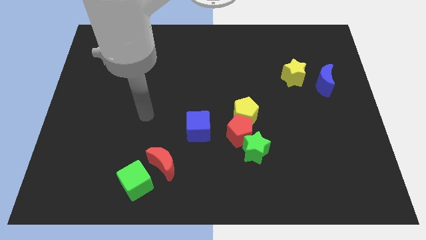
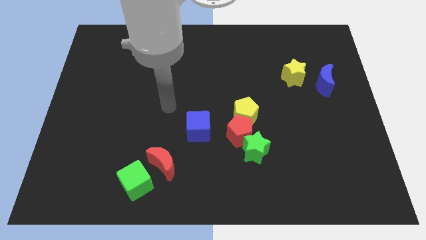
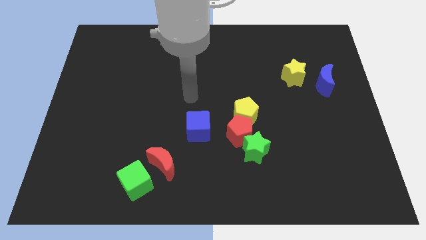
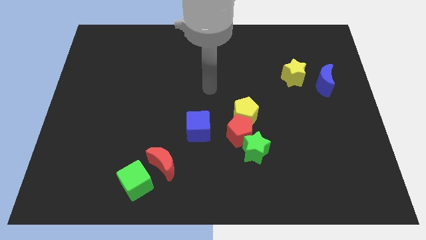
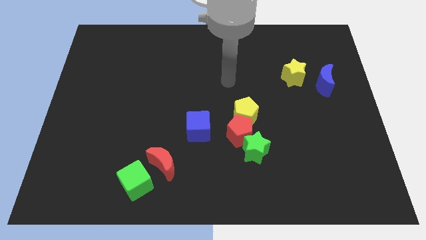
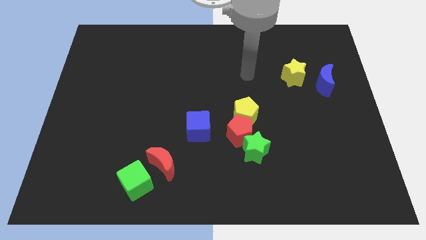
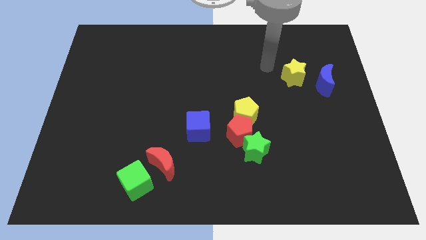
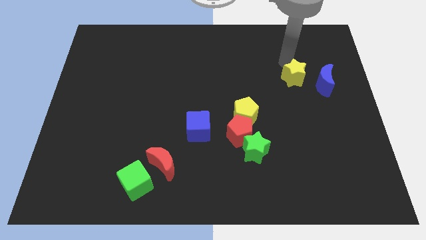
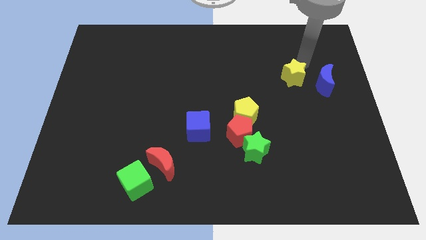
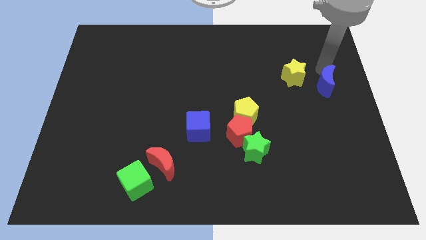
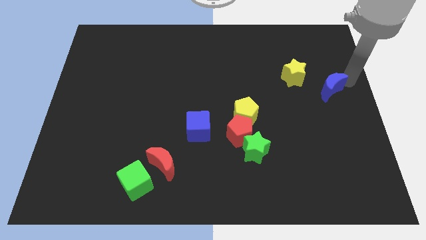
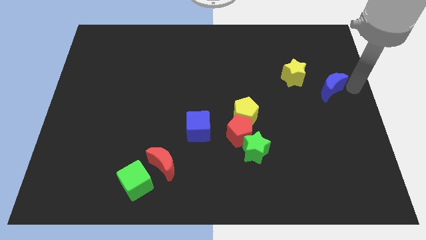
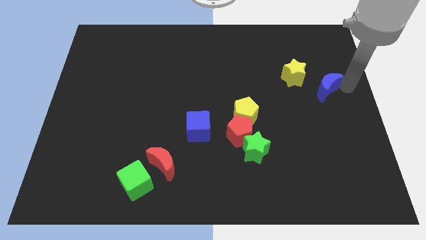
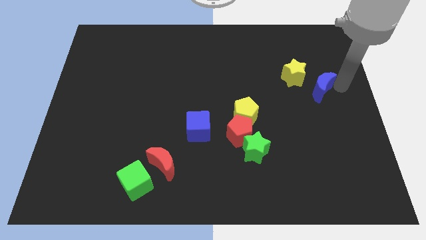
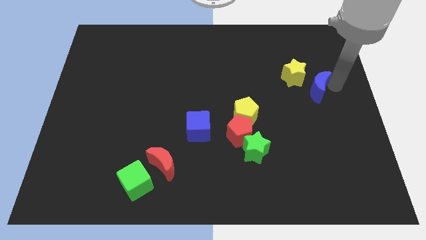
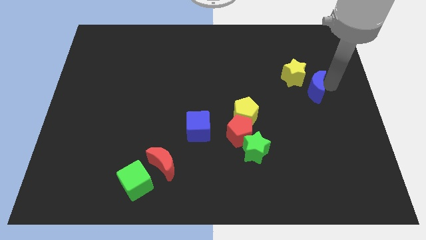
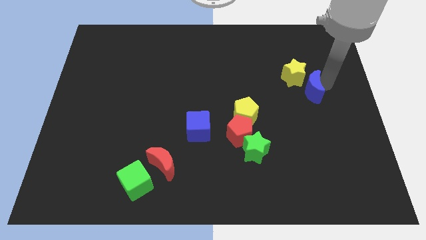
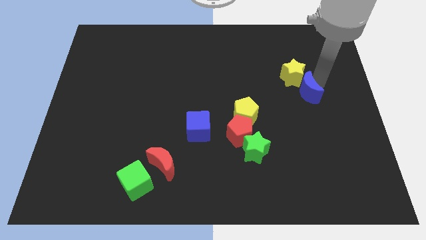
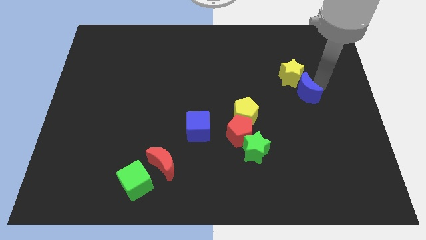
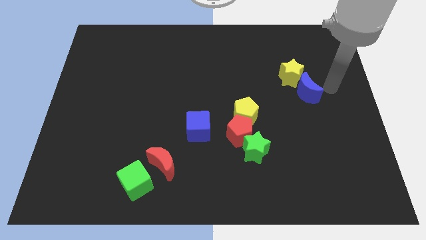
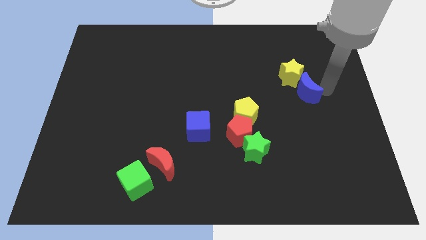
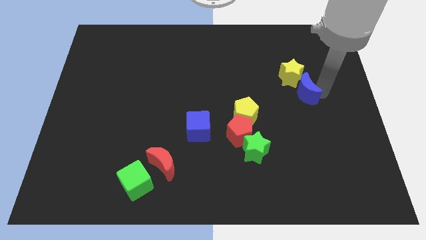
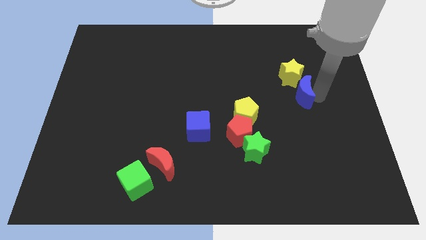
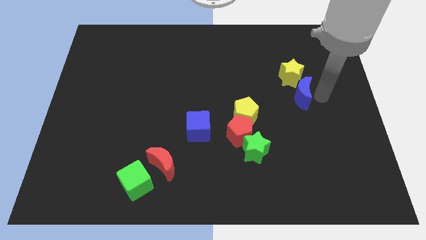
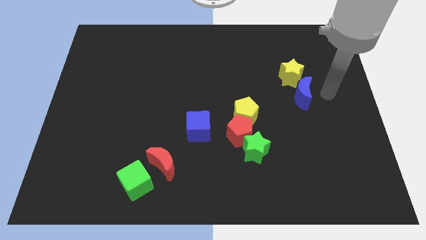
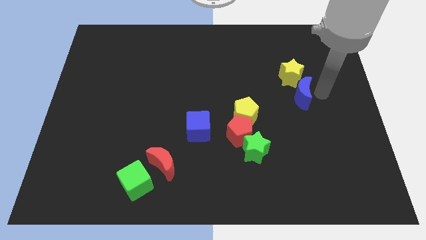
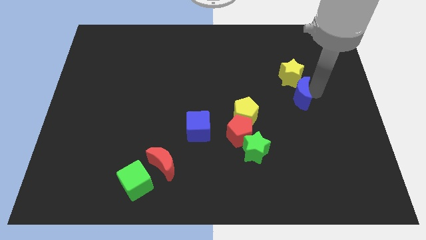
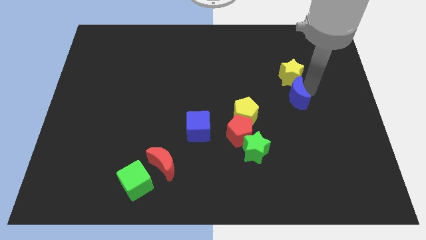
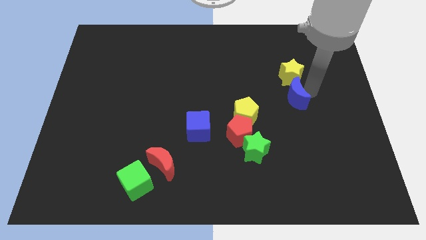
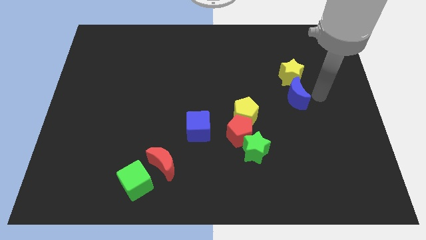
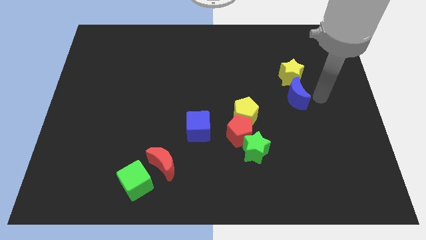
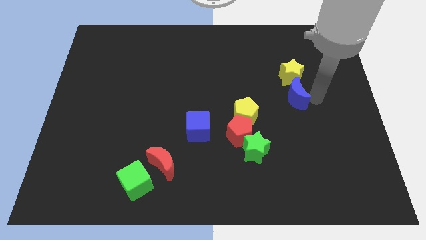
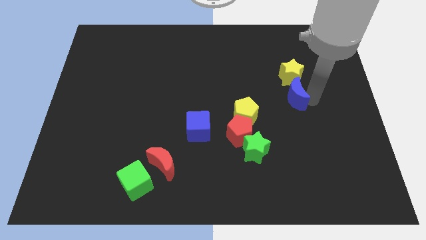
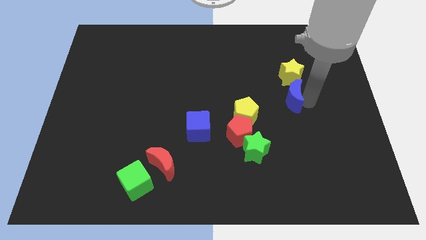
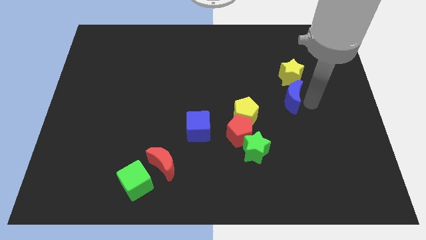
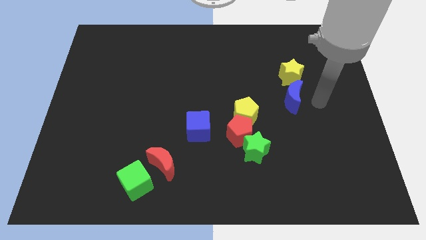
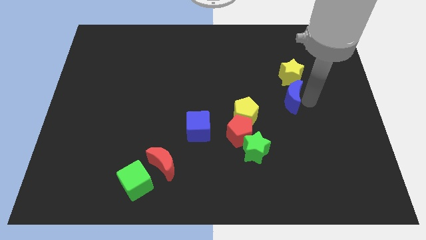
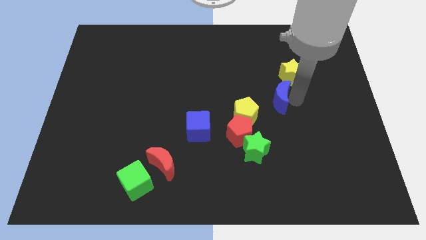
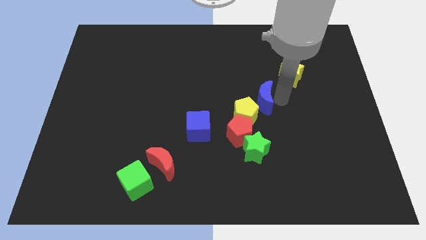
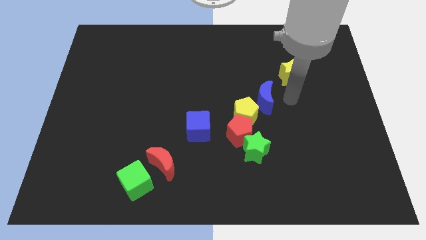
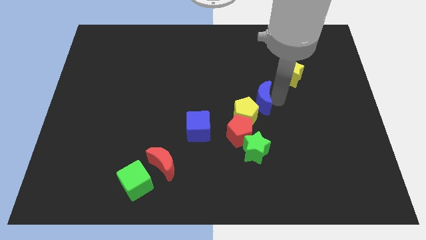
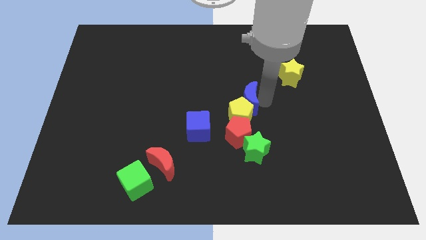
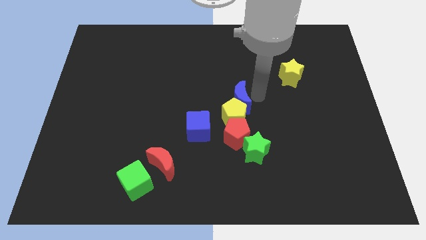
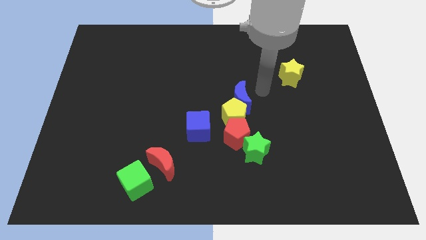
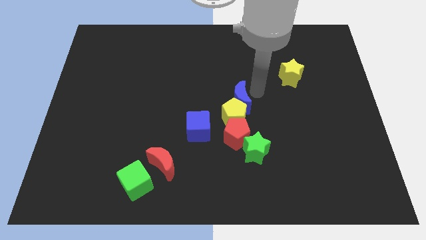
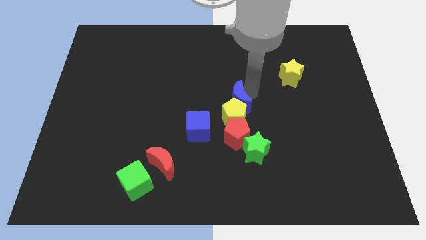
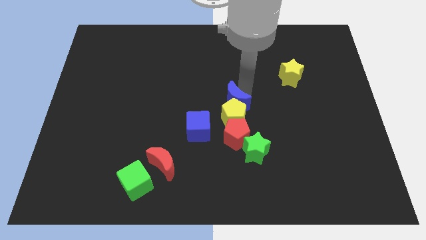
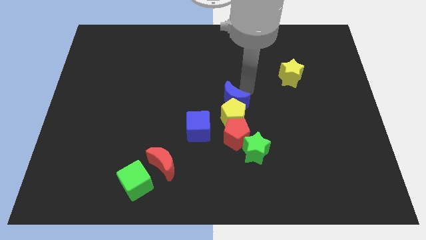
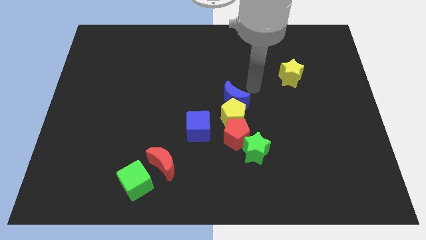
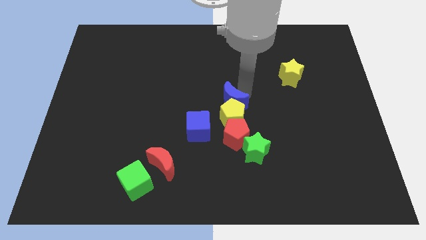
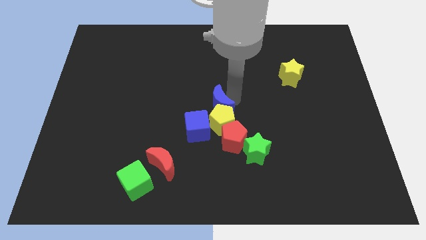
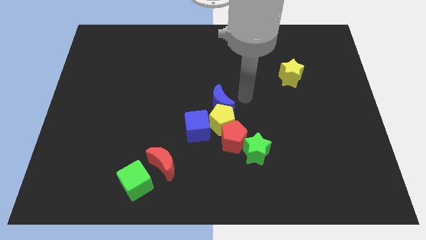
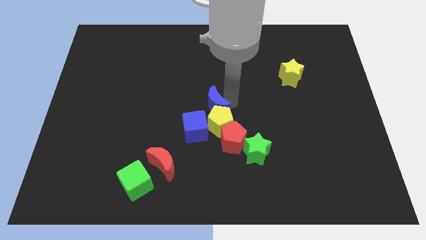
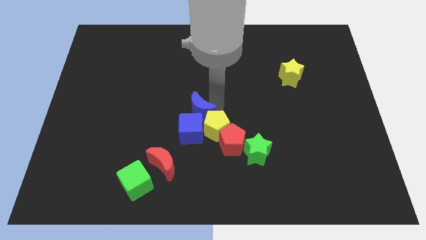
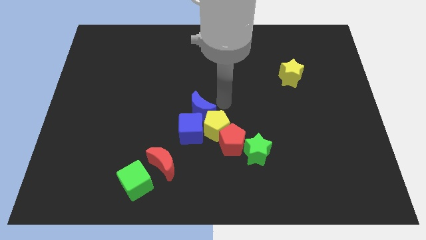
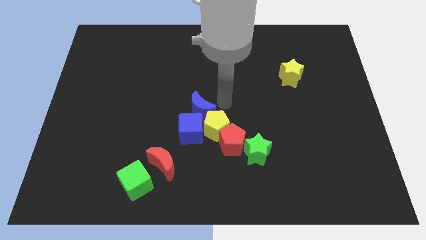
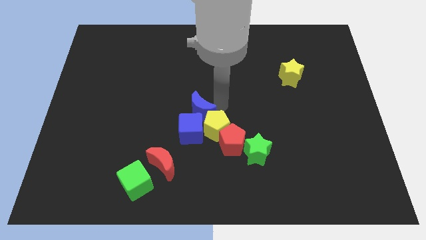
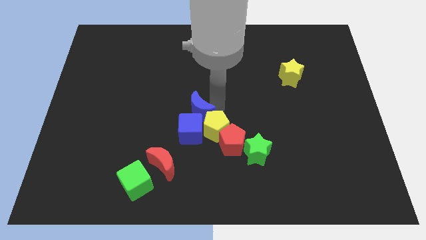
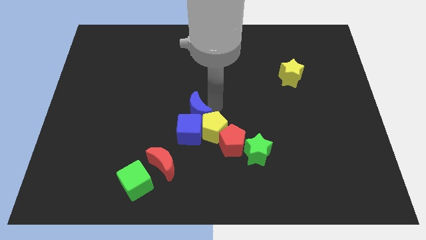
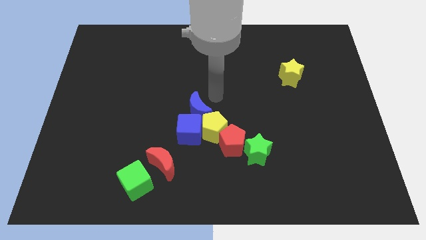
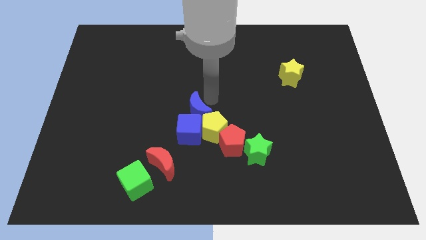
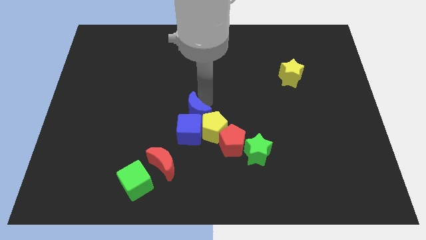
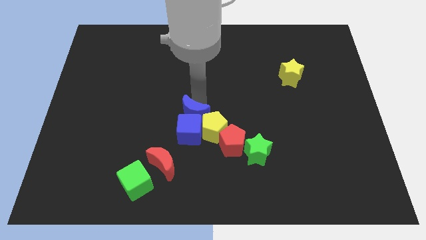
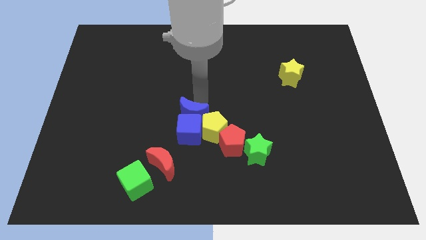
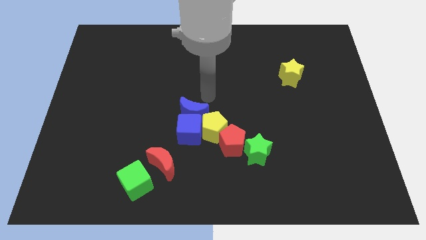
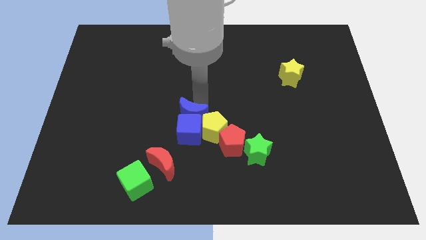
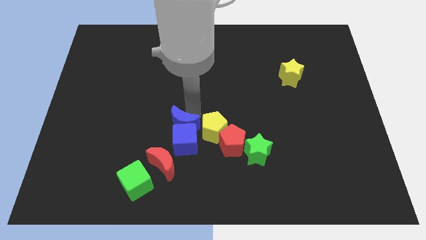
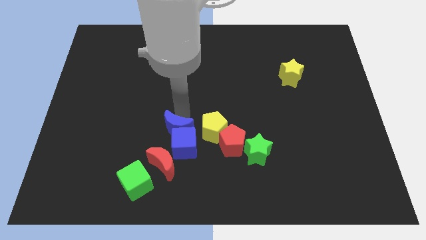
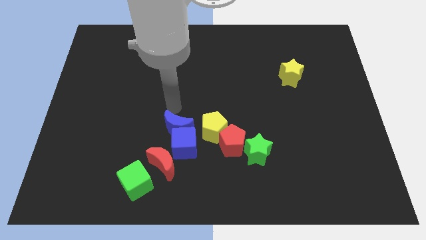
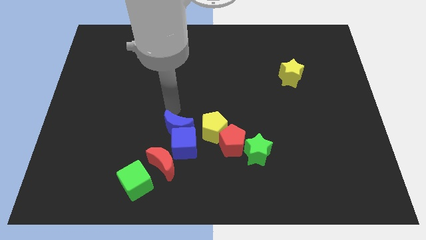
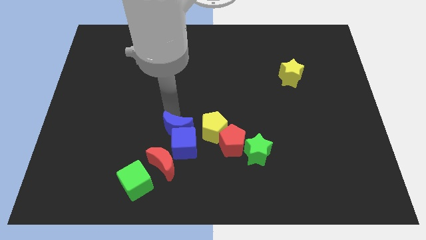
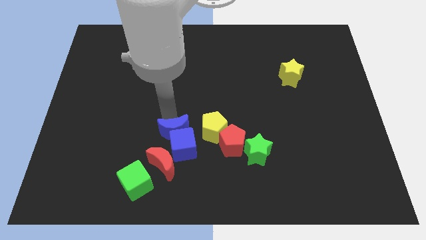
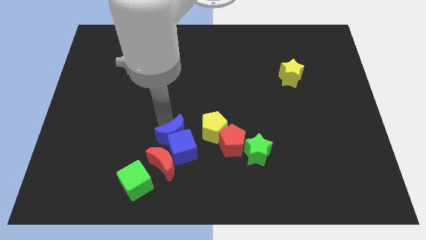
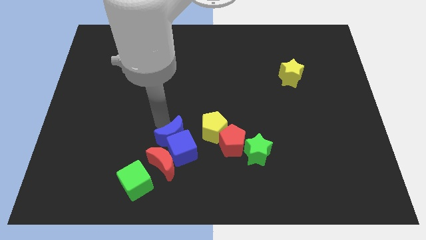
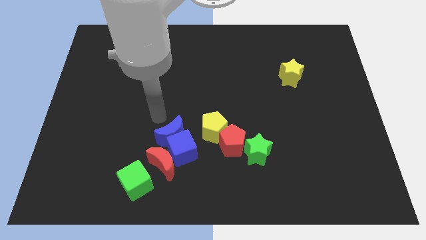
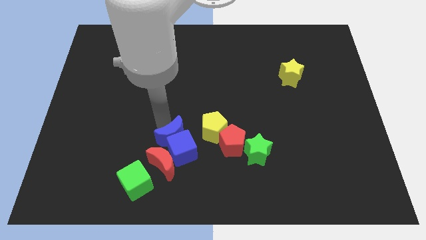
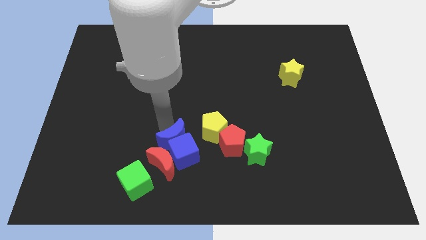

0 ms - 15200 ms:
slide the blue moon towards the red moon
